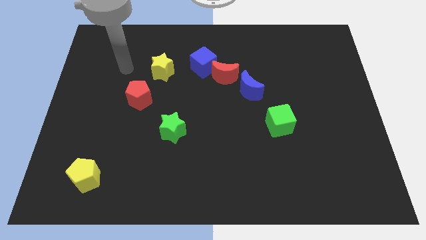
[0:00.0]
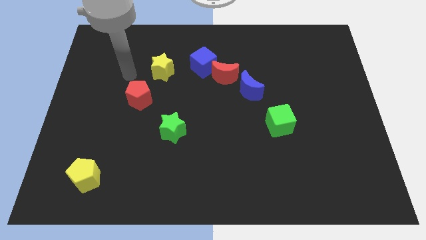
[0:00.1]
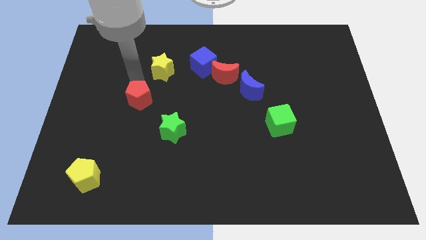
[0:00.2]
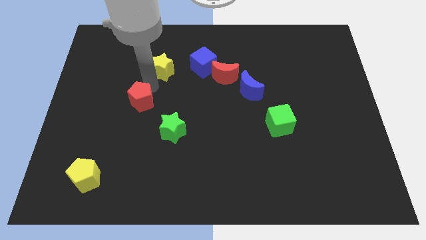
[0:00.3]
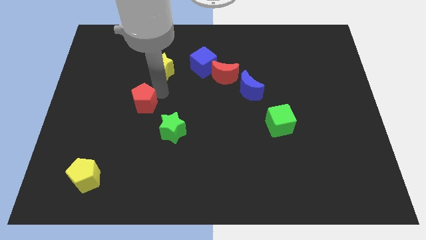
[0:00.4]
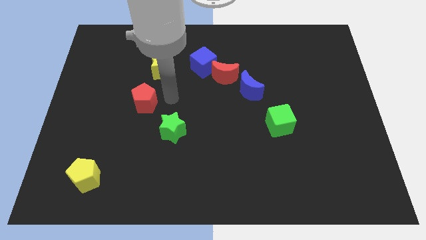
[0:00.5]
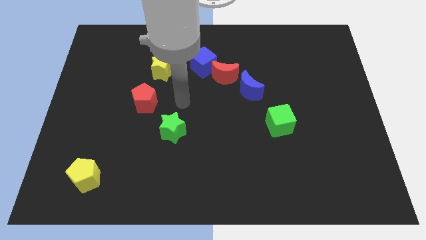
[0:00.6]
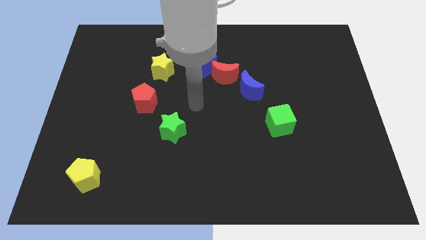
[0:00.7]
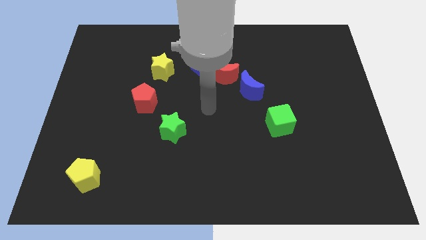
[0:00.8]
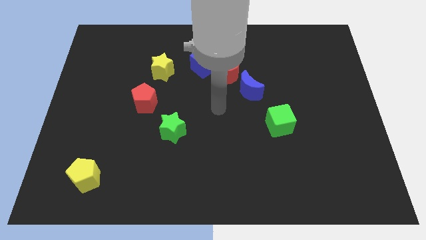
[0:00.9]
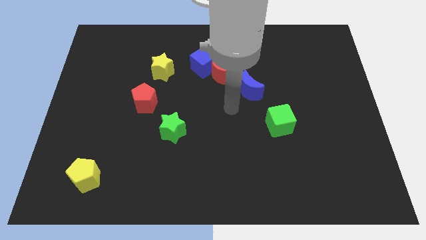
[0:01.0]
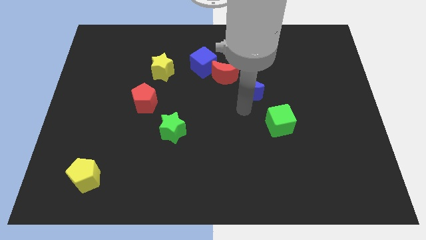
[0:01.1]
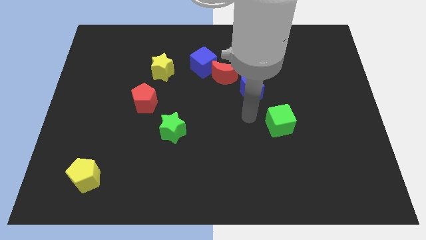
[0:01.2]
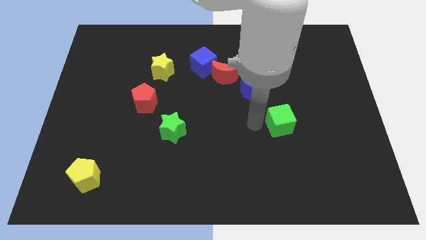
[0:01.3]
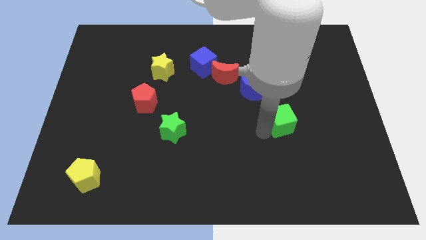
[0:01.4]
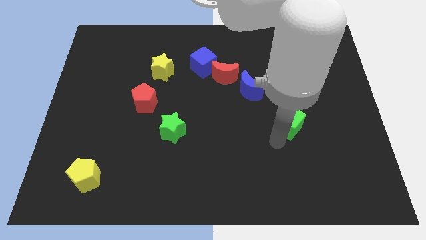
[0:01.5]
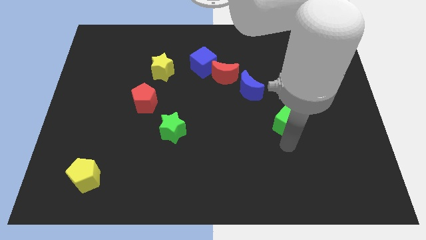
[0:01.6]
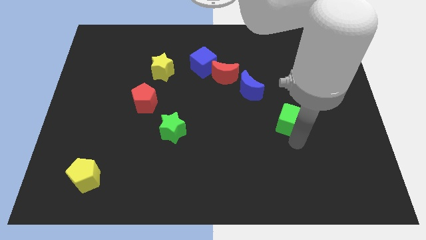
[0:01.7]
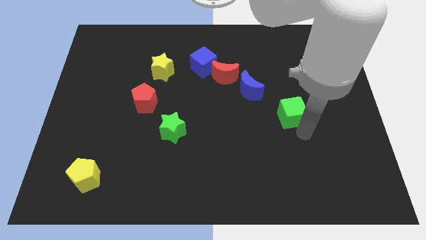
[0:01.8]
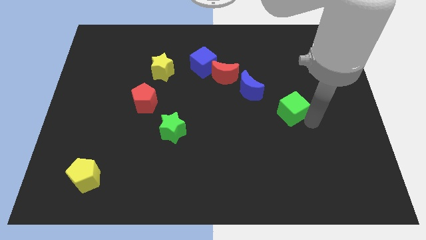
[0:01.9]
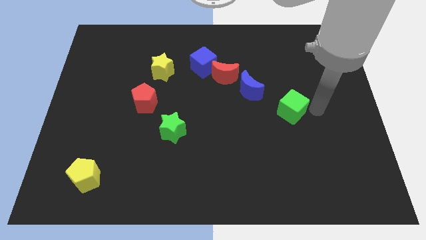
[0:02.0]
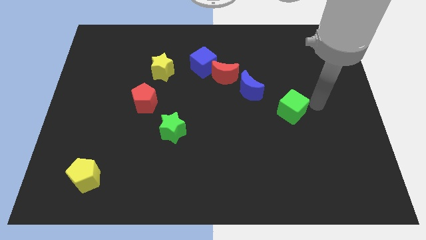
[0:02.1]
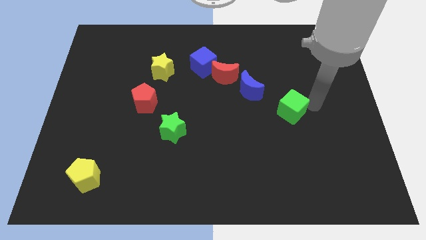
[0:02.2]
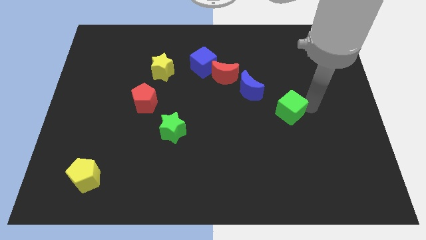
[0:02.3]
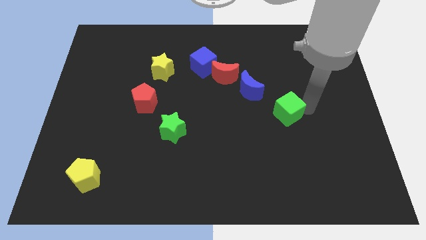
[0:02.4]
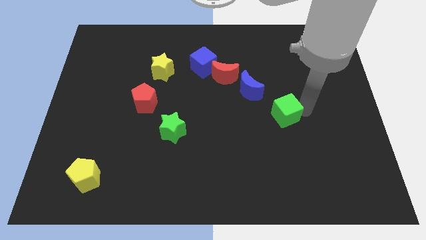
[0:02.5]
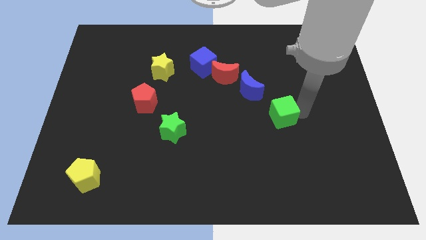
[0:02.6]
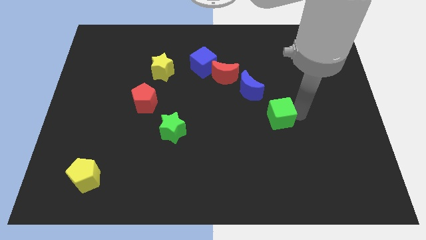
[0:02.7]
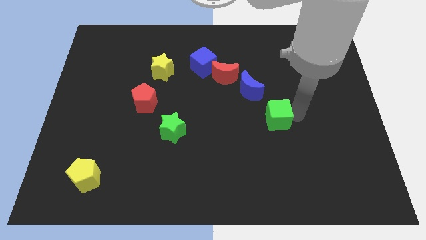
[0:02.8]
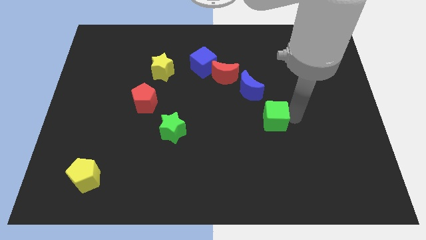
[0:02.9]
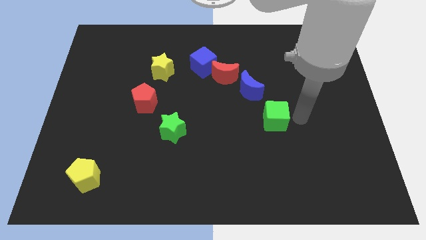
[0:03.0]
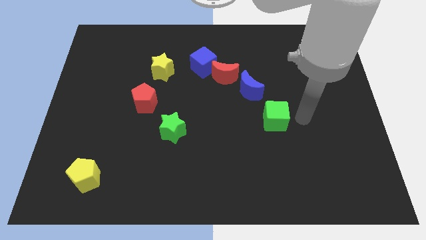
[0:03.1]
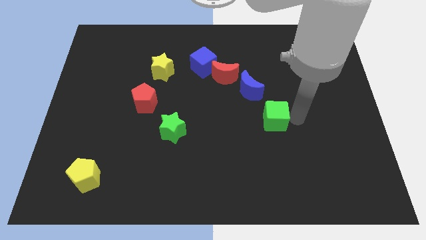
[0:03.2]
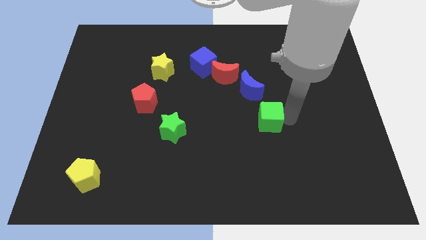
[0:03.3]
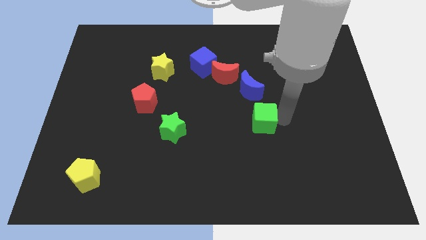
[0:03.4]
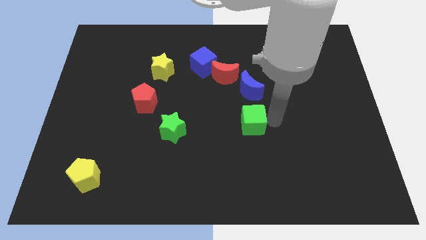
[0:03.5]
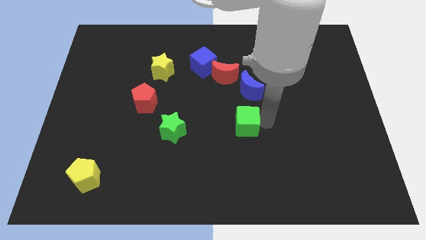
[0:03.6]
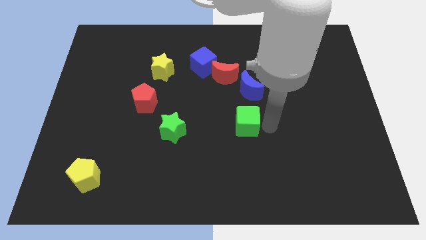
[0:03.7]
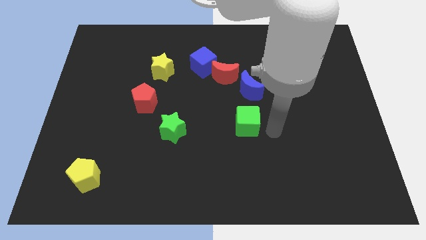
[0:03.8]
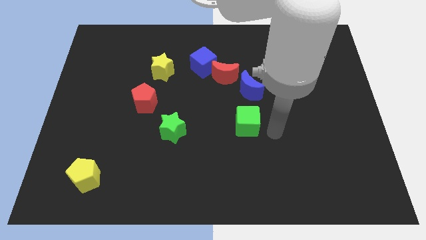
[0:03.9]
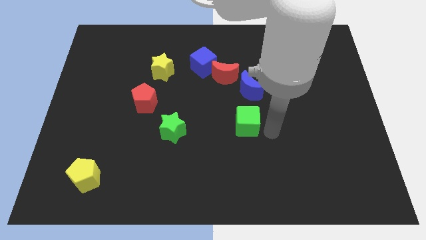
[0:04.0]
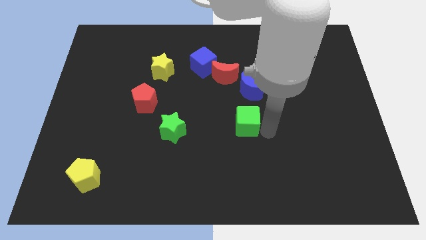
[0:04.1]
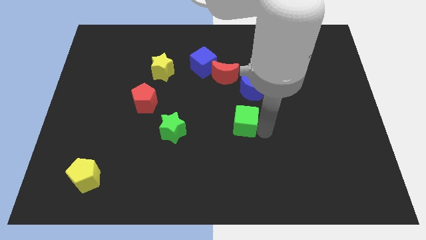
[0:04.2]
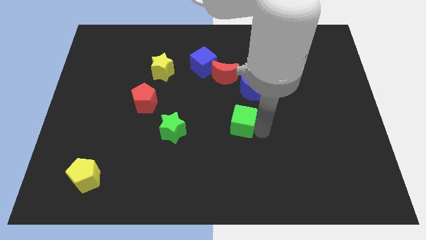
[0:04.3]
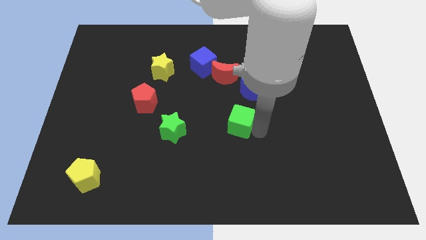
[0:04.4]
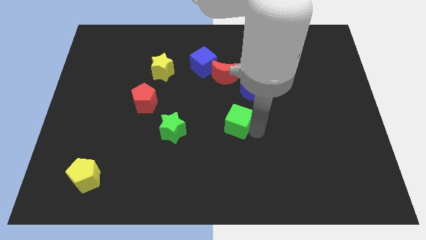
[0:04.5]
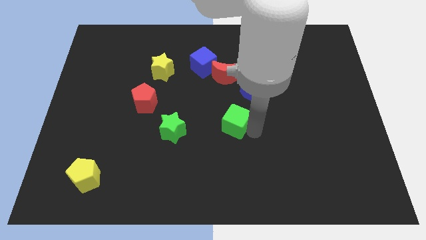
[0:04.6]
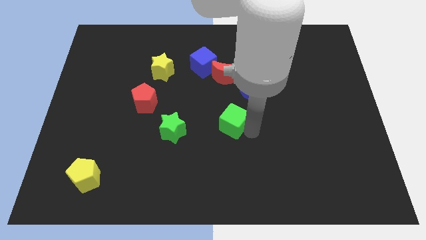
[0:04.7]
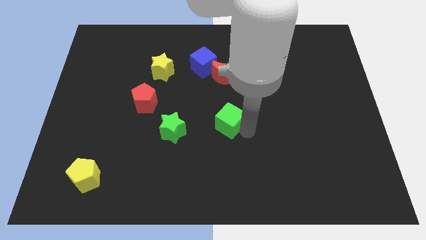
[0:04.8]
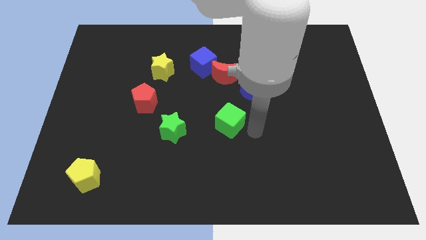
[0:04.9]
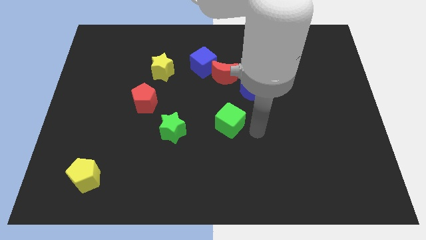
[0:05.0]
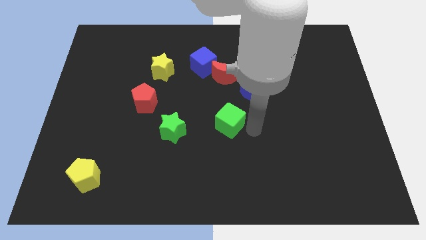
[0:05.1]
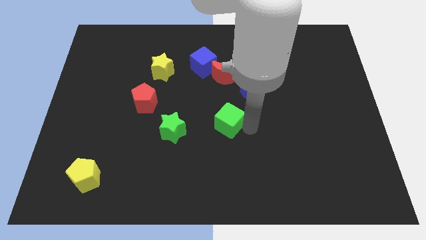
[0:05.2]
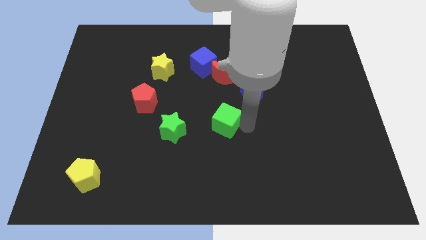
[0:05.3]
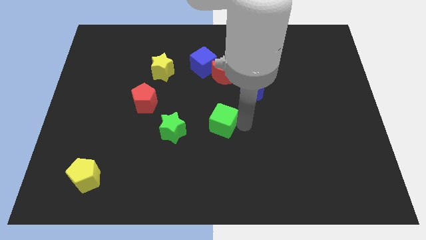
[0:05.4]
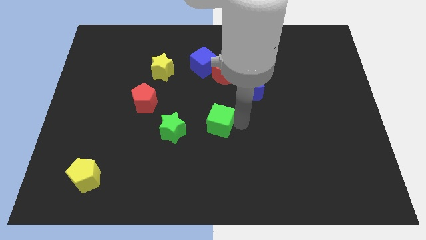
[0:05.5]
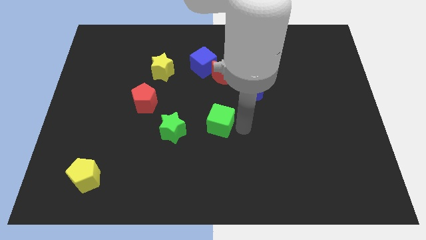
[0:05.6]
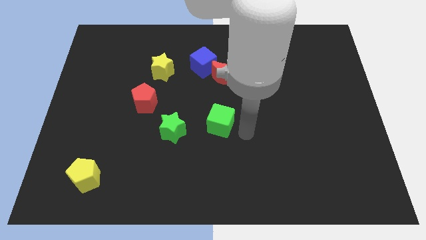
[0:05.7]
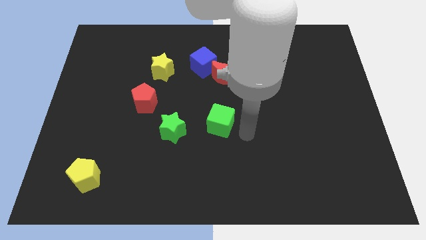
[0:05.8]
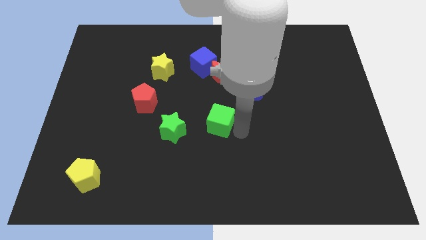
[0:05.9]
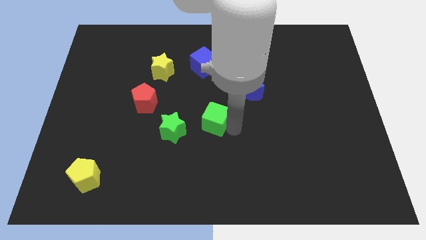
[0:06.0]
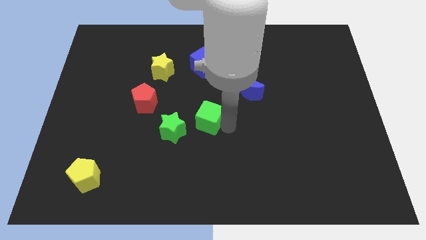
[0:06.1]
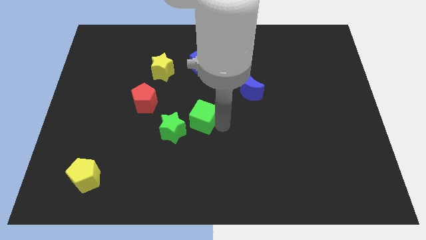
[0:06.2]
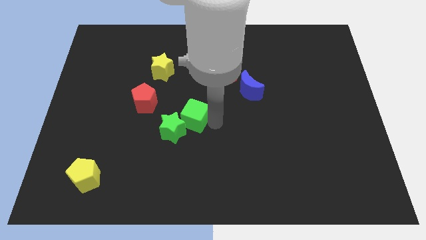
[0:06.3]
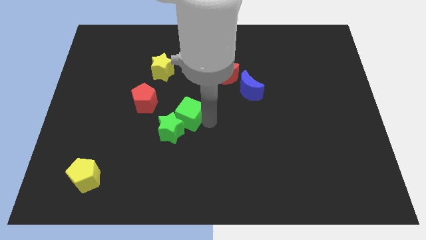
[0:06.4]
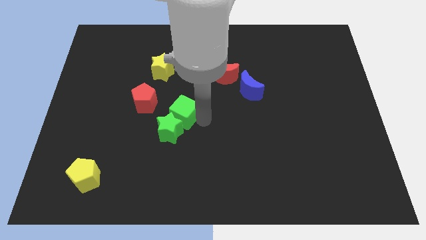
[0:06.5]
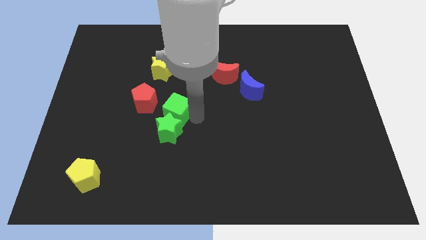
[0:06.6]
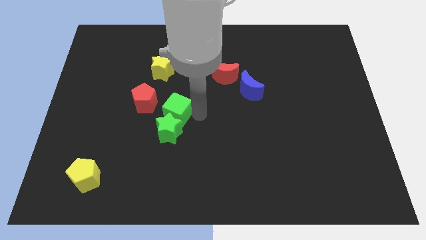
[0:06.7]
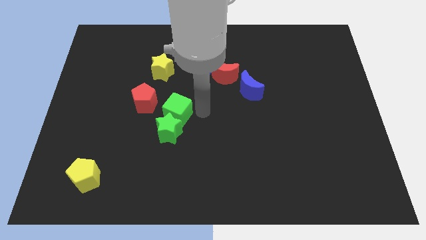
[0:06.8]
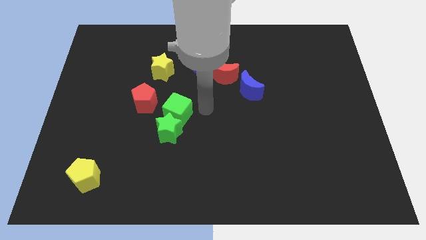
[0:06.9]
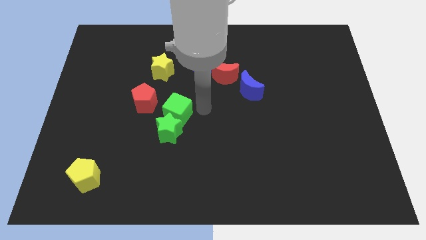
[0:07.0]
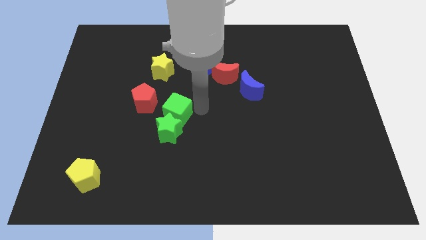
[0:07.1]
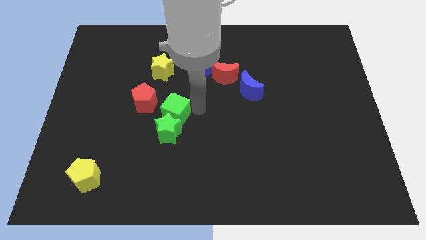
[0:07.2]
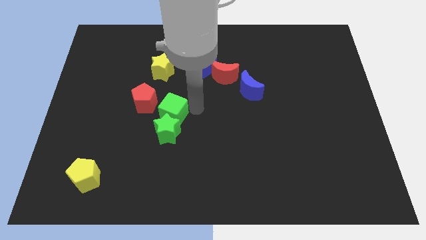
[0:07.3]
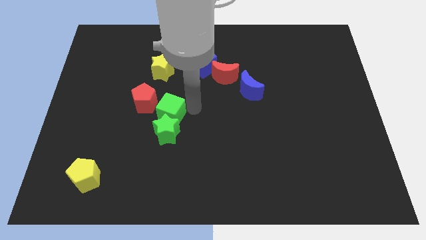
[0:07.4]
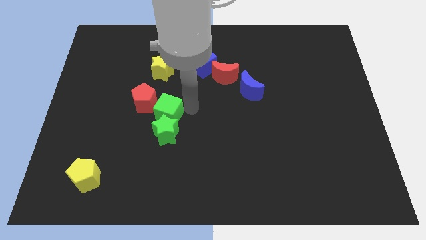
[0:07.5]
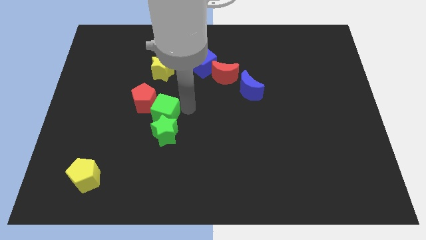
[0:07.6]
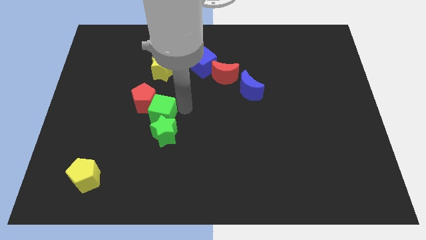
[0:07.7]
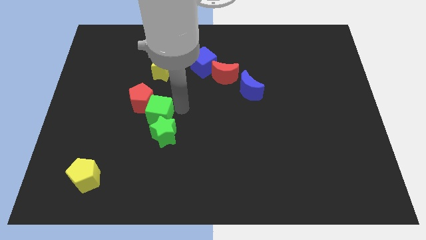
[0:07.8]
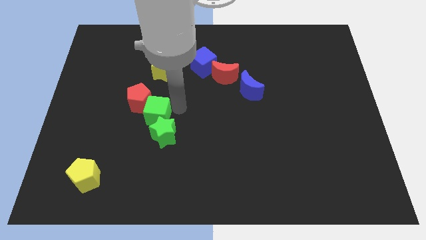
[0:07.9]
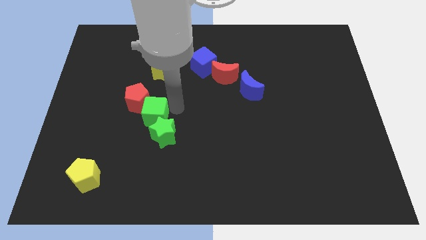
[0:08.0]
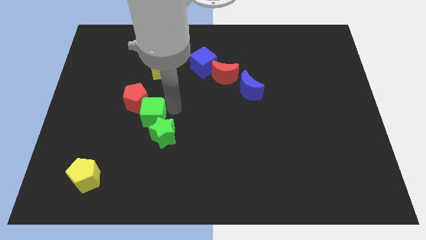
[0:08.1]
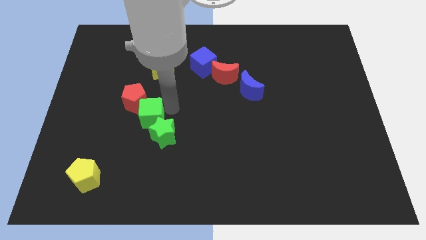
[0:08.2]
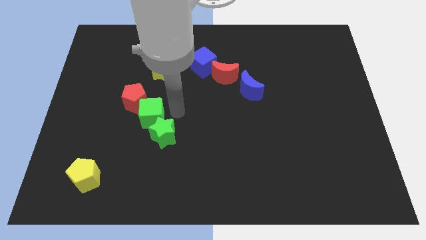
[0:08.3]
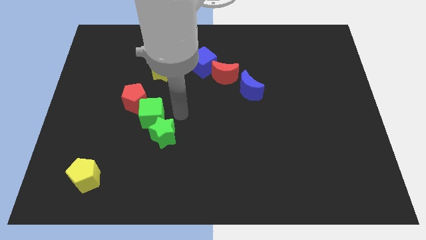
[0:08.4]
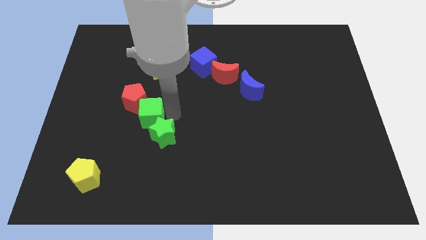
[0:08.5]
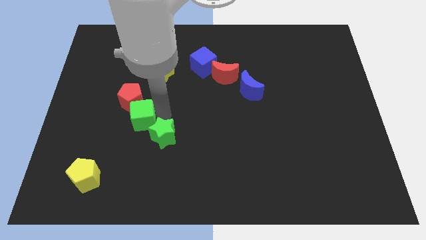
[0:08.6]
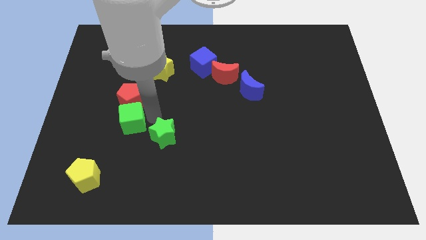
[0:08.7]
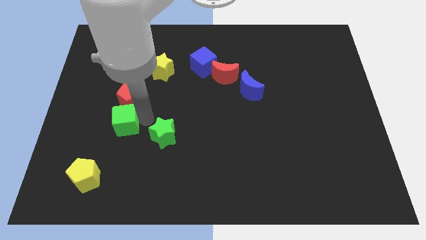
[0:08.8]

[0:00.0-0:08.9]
slide the green cube to the bottom left side of the red pentagon
